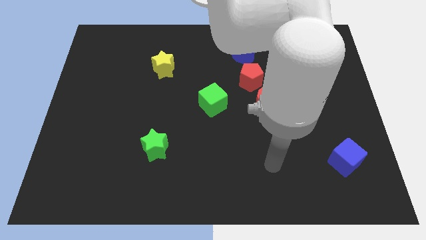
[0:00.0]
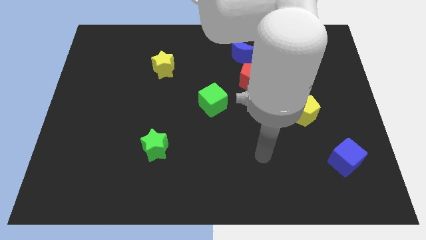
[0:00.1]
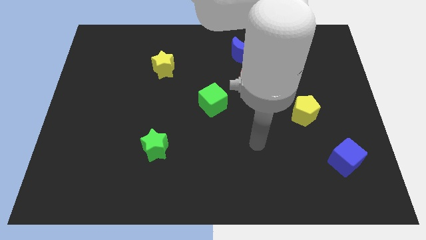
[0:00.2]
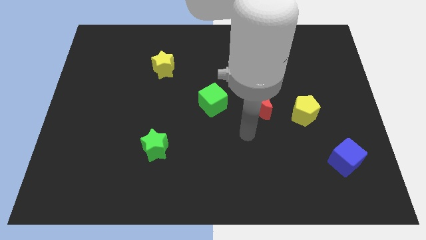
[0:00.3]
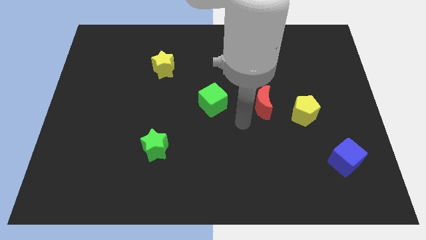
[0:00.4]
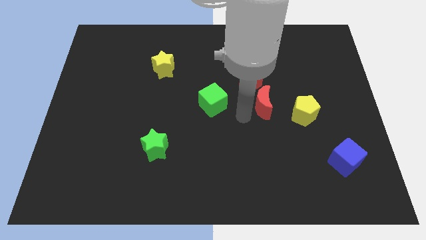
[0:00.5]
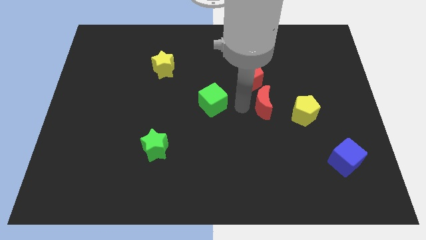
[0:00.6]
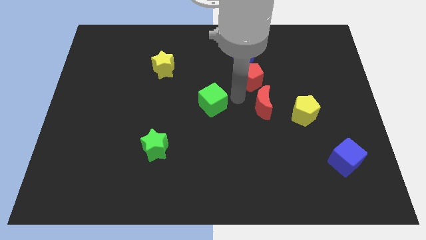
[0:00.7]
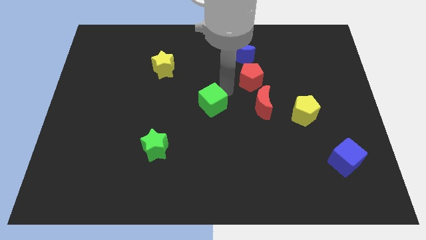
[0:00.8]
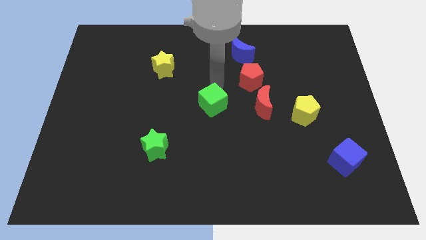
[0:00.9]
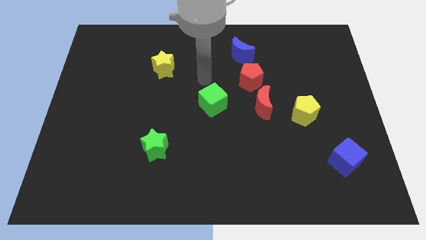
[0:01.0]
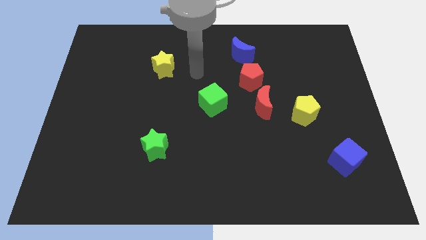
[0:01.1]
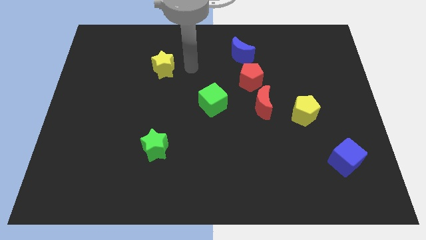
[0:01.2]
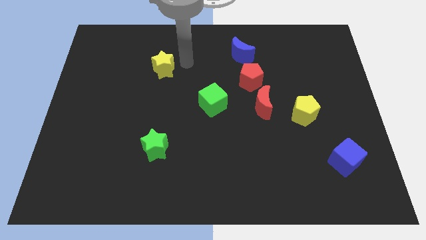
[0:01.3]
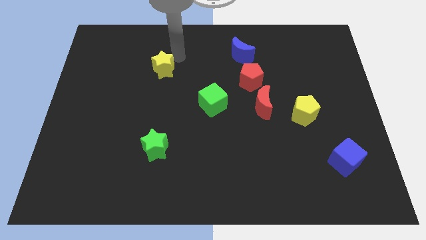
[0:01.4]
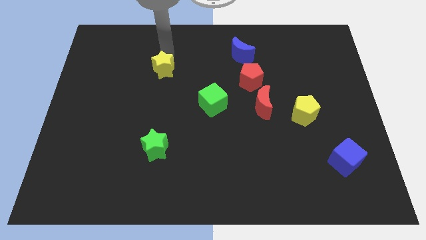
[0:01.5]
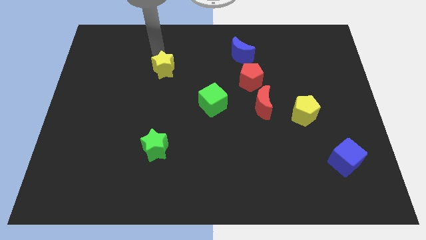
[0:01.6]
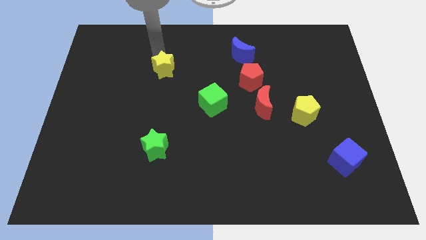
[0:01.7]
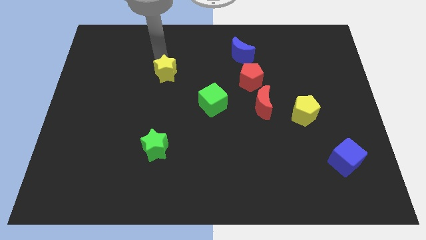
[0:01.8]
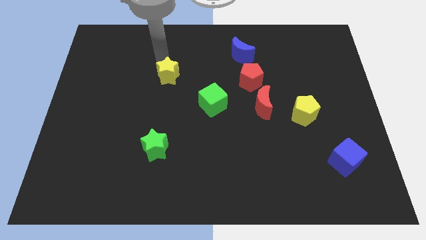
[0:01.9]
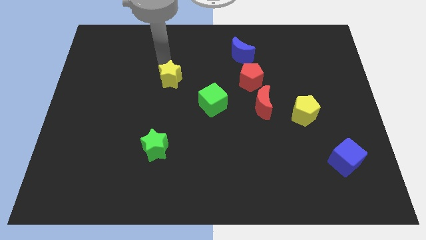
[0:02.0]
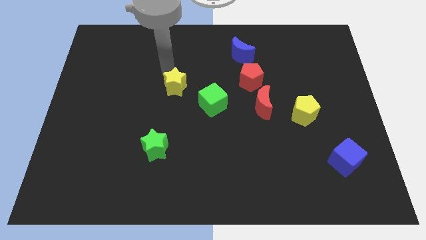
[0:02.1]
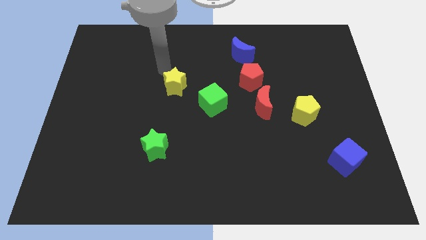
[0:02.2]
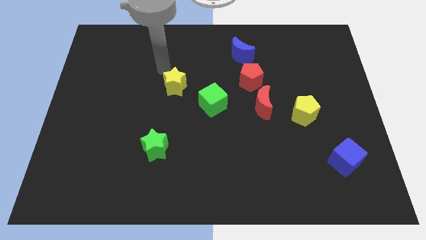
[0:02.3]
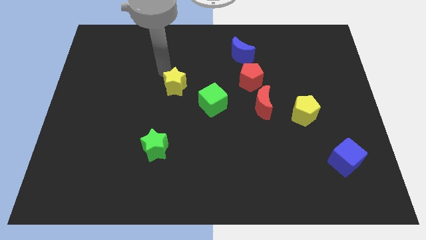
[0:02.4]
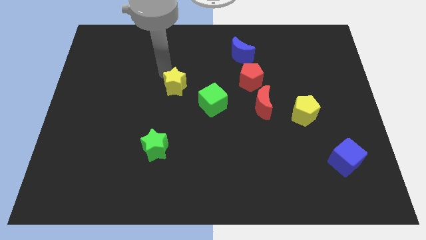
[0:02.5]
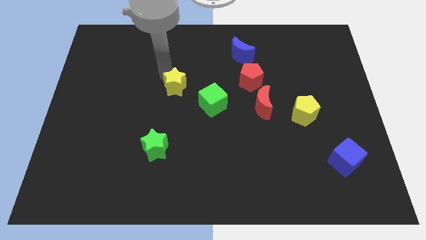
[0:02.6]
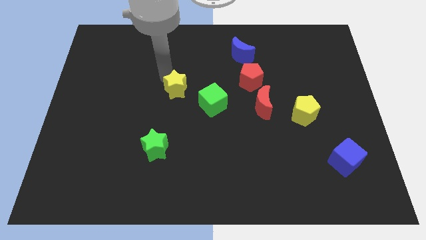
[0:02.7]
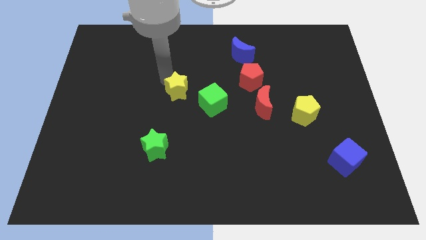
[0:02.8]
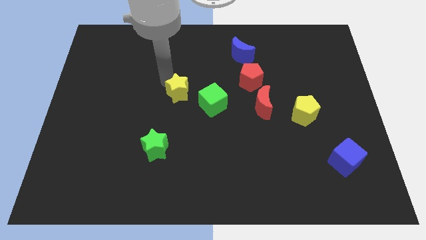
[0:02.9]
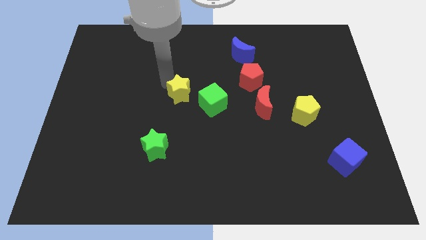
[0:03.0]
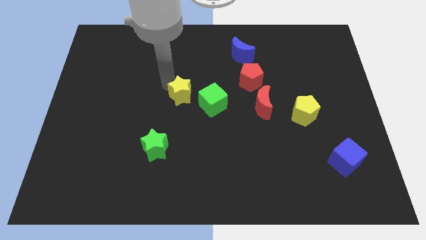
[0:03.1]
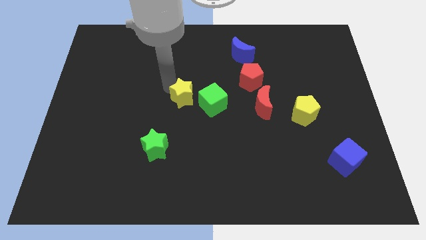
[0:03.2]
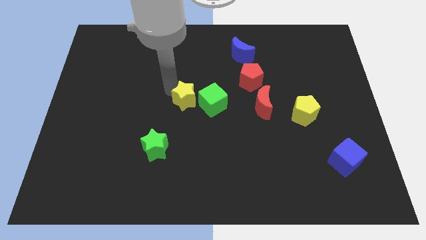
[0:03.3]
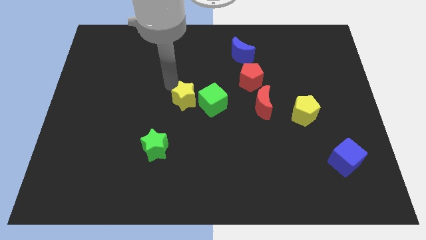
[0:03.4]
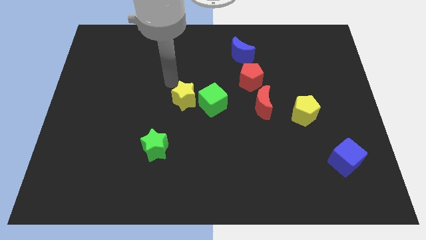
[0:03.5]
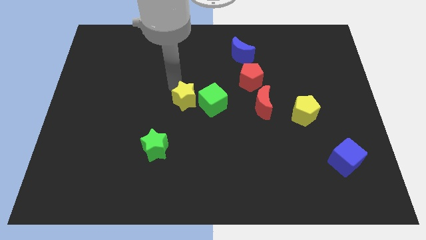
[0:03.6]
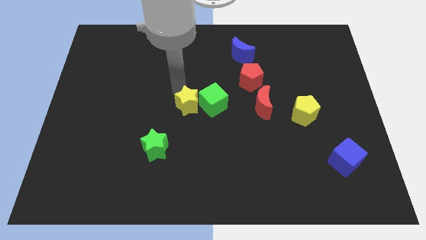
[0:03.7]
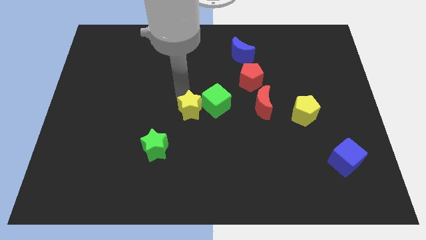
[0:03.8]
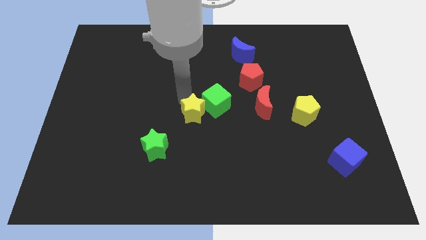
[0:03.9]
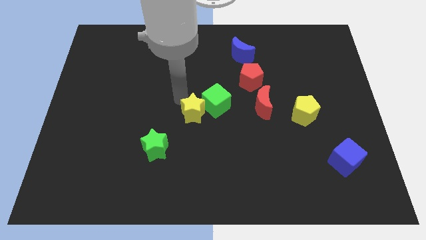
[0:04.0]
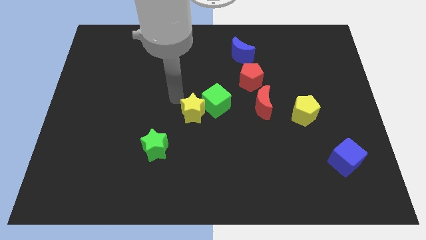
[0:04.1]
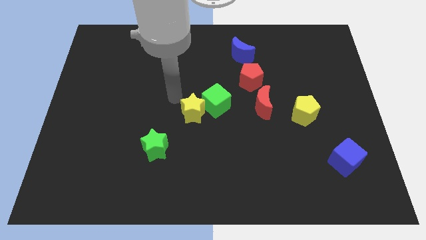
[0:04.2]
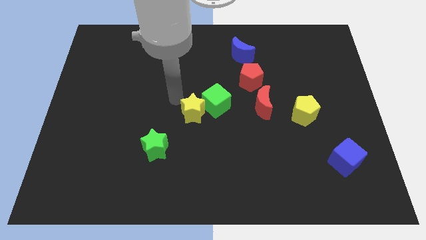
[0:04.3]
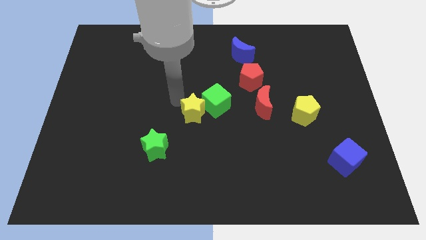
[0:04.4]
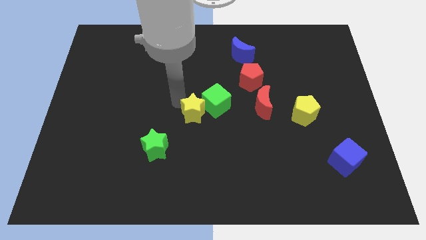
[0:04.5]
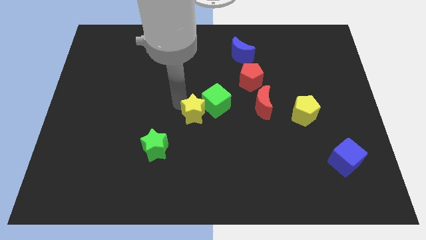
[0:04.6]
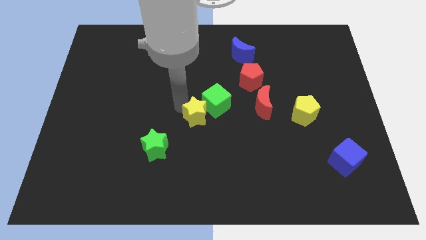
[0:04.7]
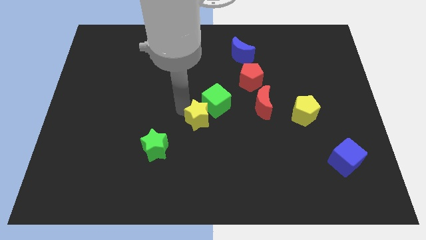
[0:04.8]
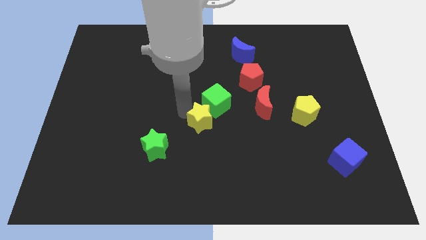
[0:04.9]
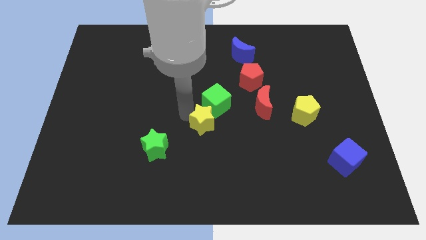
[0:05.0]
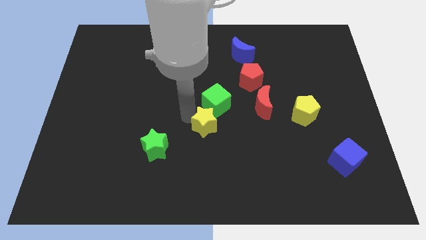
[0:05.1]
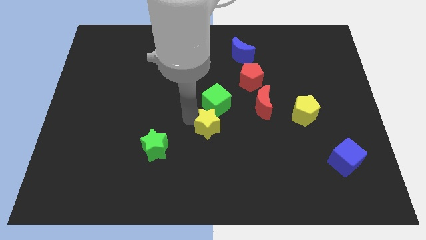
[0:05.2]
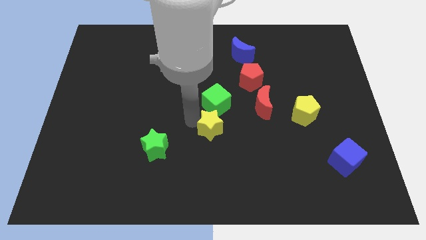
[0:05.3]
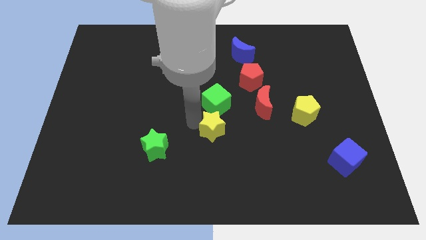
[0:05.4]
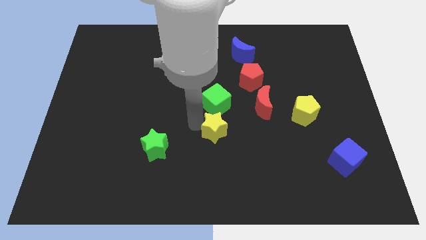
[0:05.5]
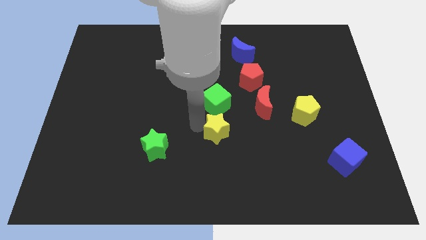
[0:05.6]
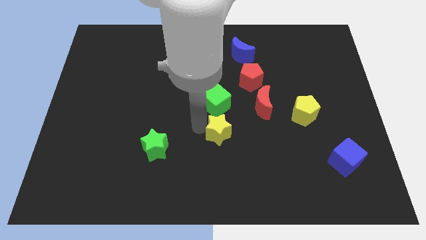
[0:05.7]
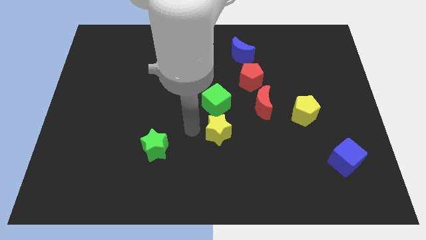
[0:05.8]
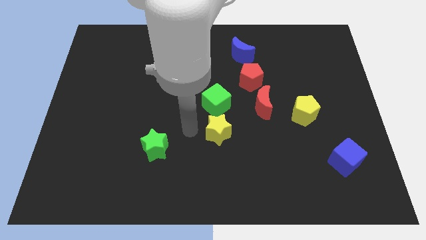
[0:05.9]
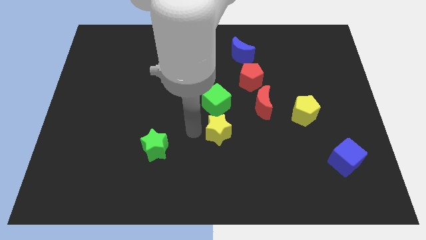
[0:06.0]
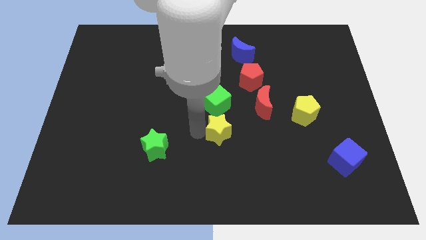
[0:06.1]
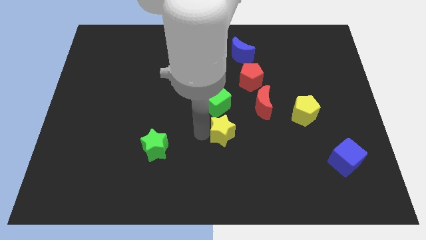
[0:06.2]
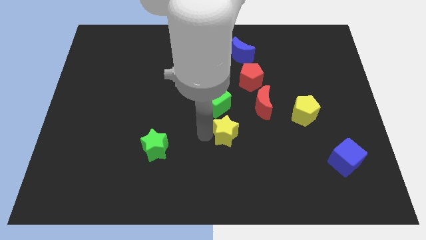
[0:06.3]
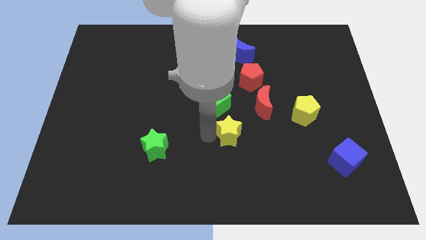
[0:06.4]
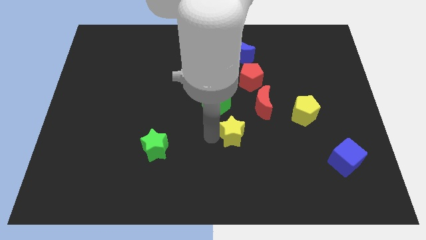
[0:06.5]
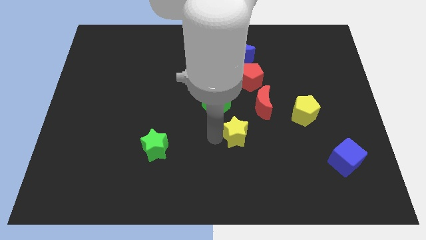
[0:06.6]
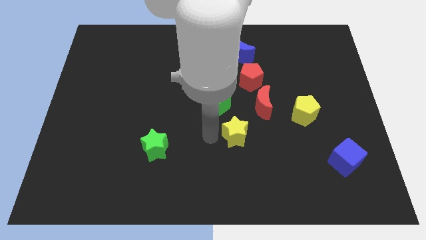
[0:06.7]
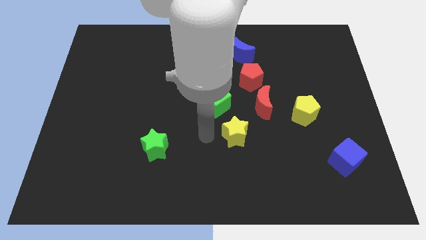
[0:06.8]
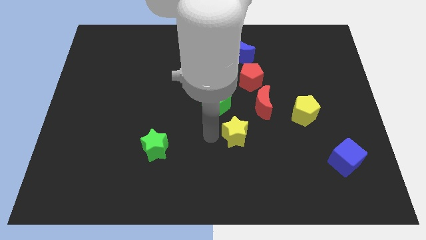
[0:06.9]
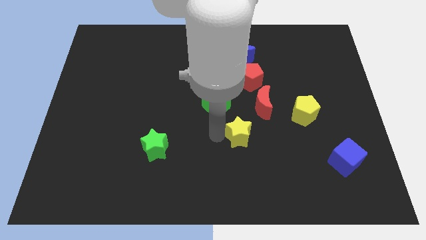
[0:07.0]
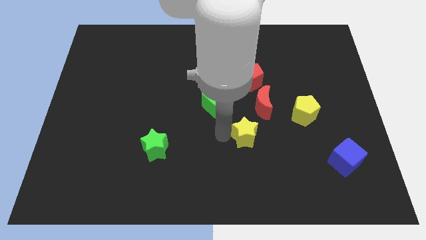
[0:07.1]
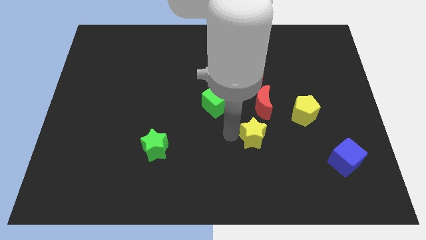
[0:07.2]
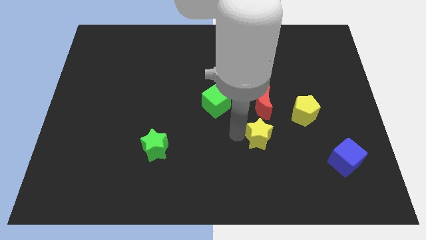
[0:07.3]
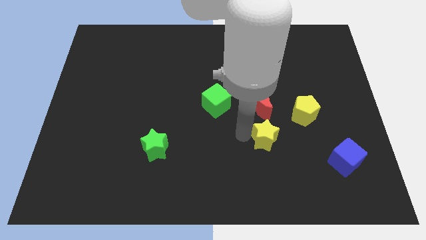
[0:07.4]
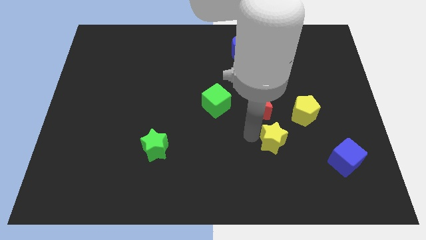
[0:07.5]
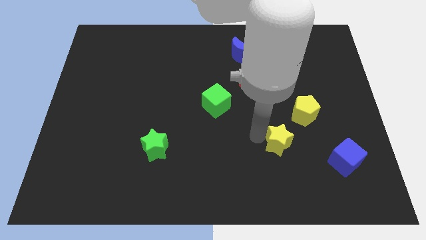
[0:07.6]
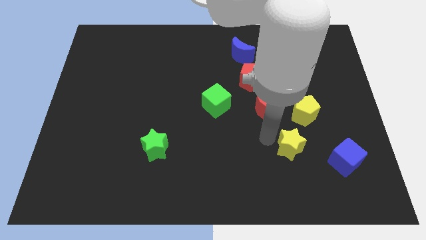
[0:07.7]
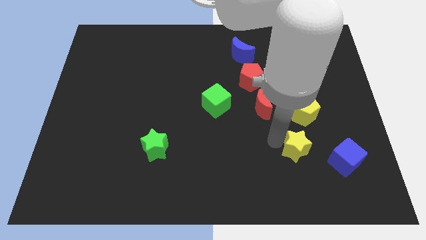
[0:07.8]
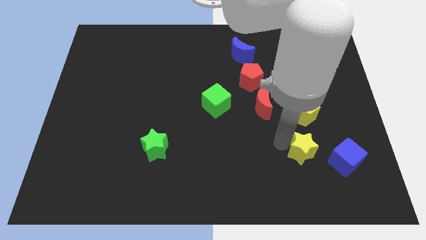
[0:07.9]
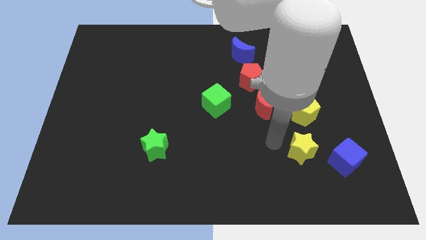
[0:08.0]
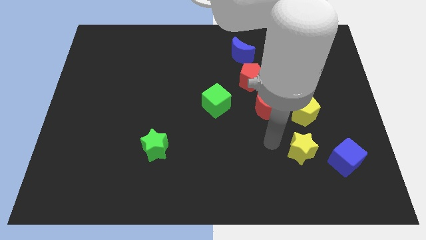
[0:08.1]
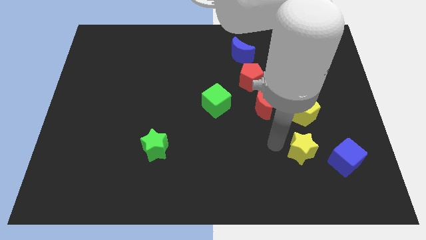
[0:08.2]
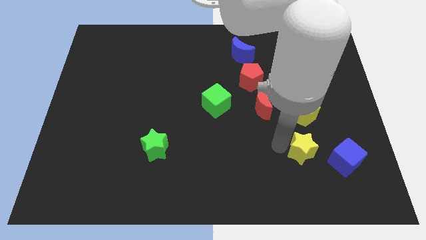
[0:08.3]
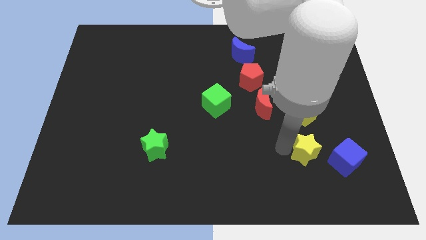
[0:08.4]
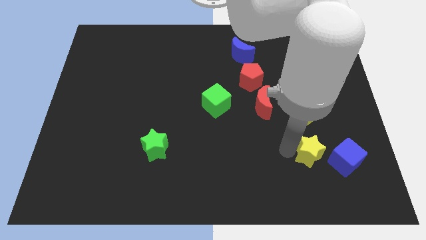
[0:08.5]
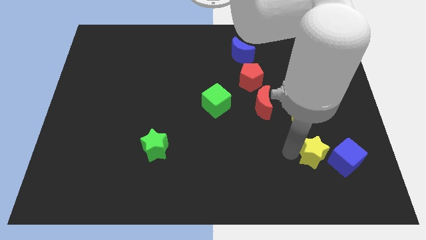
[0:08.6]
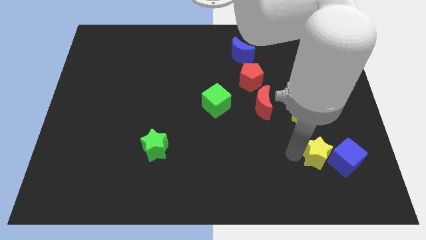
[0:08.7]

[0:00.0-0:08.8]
slide the yellow star towards the blue cube
